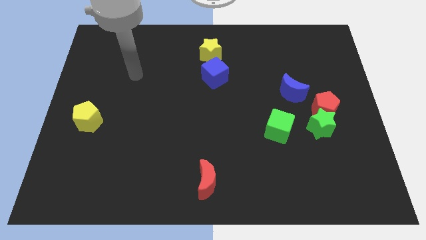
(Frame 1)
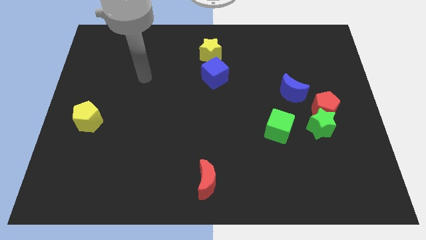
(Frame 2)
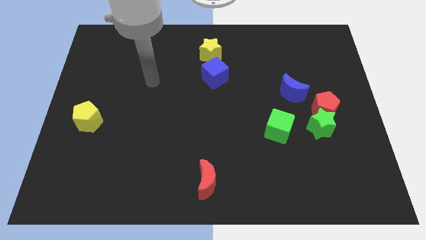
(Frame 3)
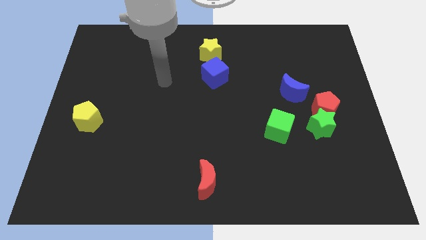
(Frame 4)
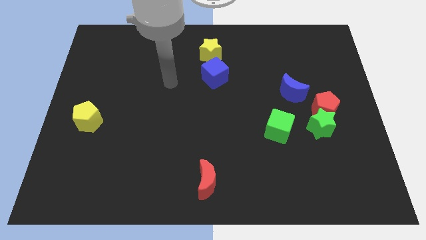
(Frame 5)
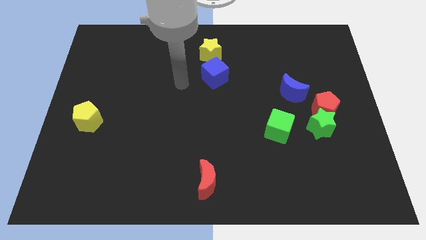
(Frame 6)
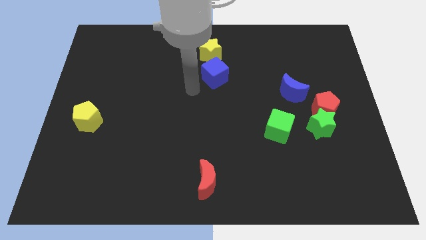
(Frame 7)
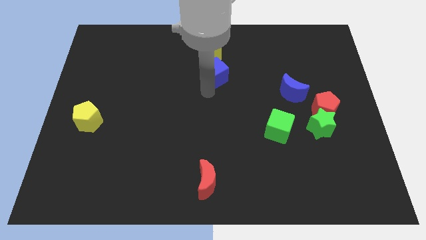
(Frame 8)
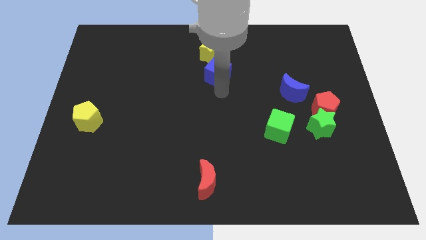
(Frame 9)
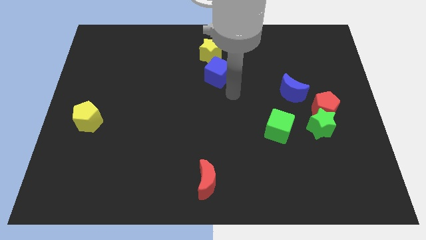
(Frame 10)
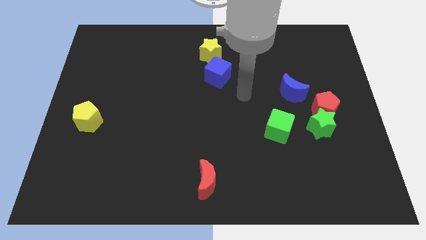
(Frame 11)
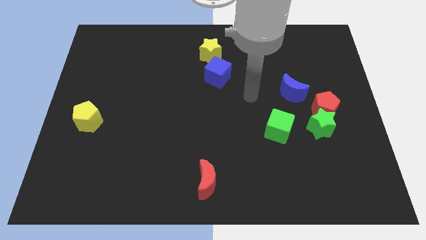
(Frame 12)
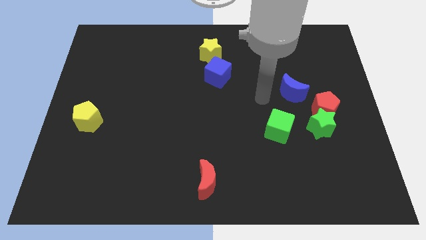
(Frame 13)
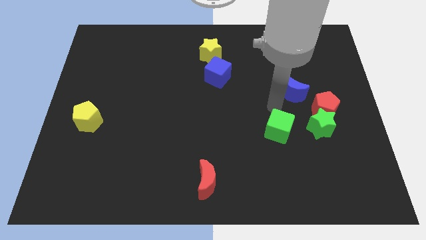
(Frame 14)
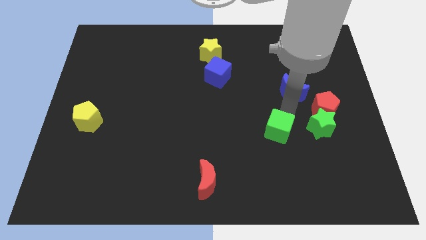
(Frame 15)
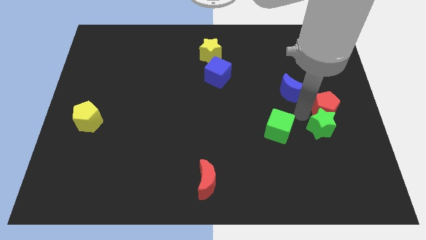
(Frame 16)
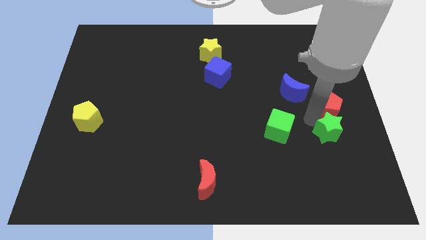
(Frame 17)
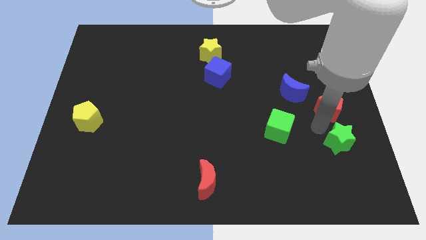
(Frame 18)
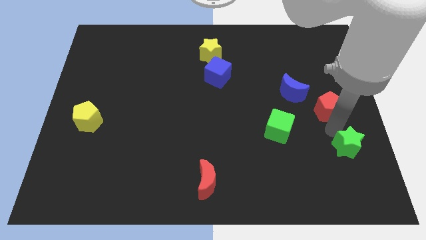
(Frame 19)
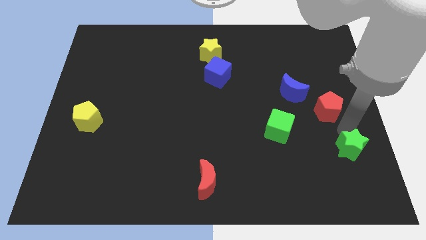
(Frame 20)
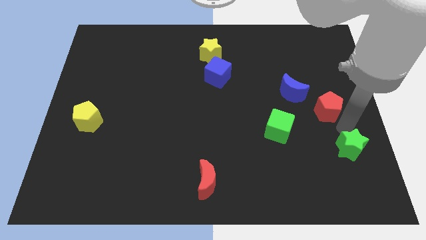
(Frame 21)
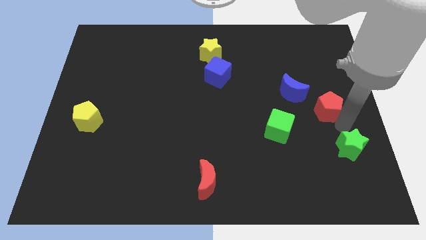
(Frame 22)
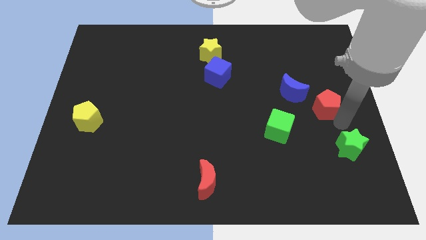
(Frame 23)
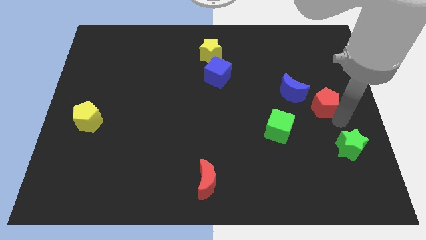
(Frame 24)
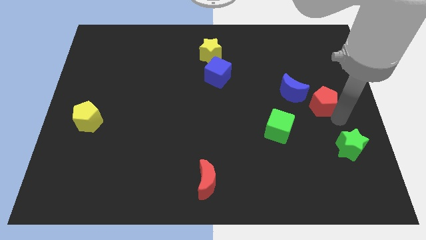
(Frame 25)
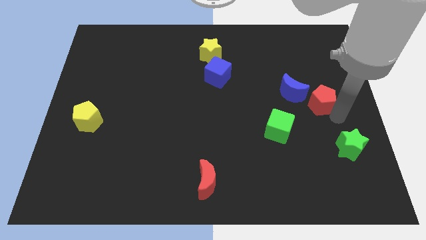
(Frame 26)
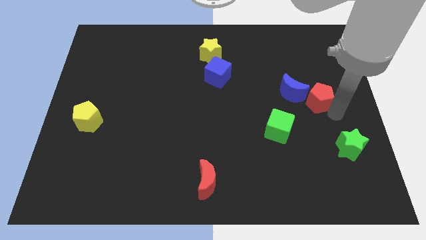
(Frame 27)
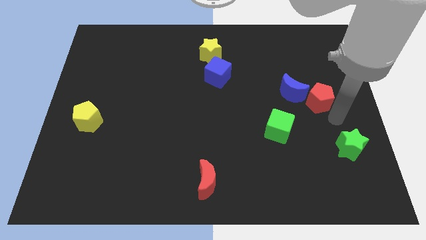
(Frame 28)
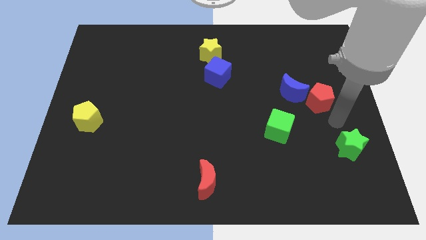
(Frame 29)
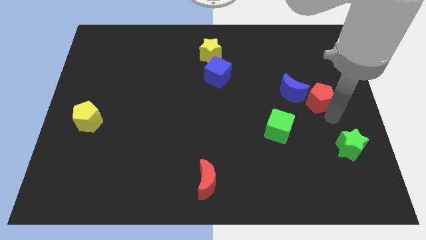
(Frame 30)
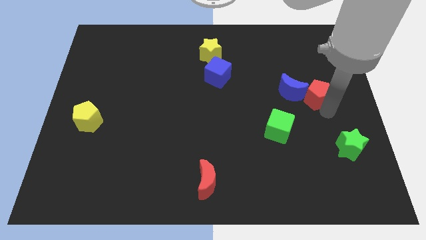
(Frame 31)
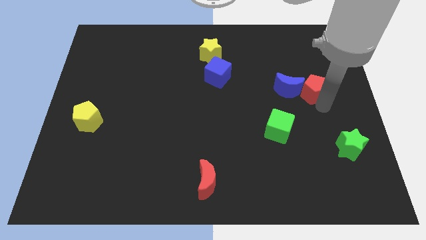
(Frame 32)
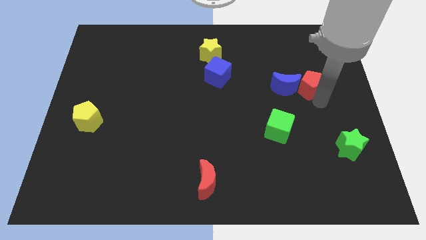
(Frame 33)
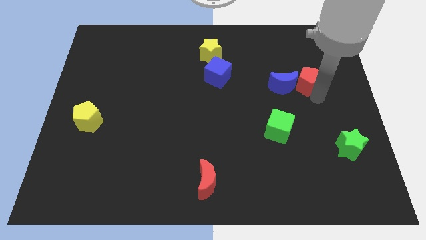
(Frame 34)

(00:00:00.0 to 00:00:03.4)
move the red pentagon a little up and left diagonally

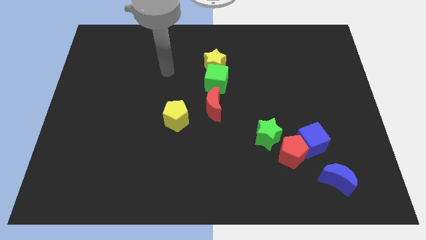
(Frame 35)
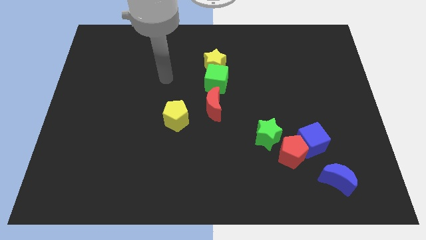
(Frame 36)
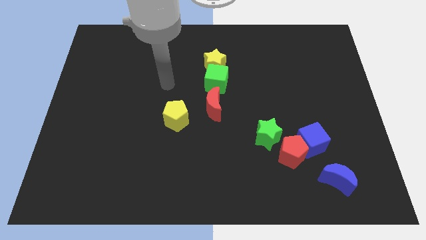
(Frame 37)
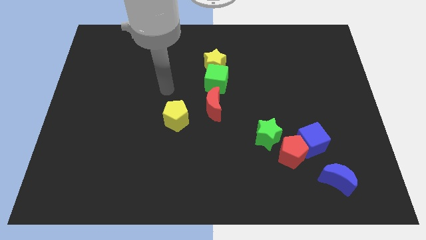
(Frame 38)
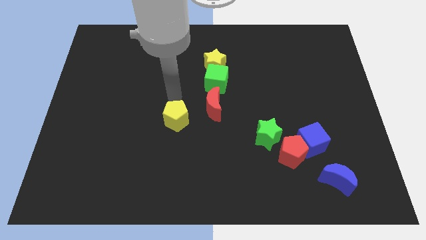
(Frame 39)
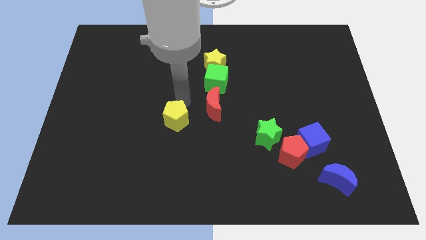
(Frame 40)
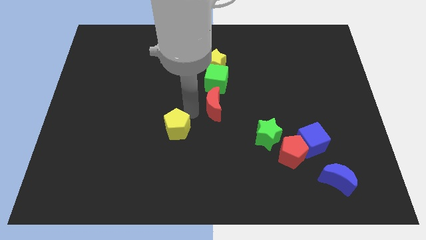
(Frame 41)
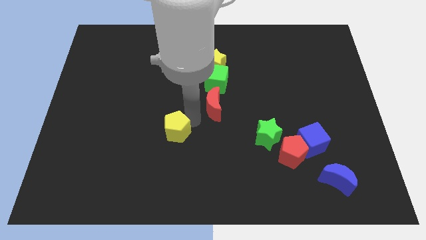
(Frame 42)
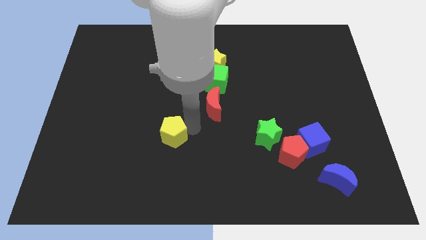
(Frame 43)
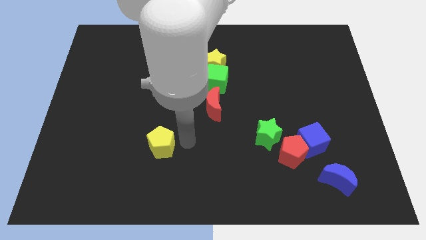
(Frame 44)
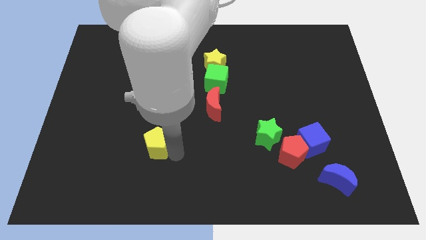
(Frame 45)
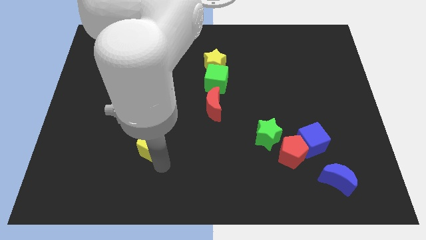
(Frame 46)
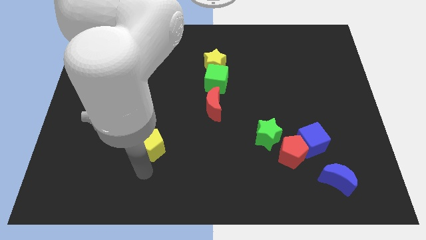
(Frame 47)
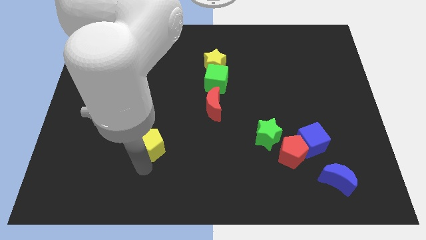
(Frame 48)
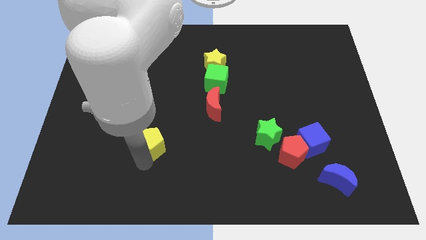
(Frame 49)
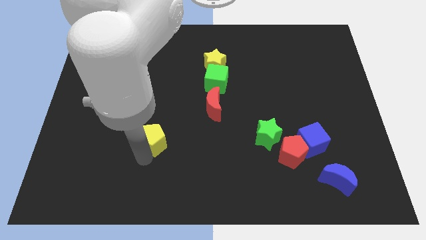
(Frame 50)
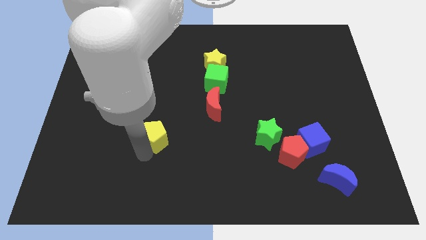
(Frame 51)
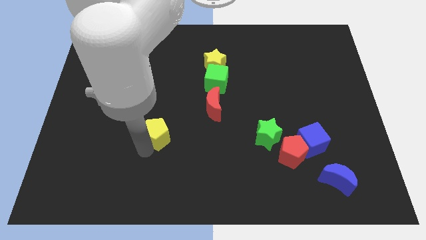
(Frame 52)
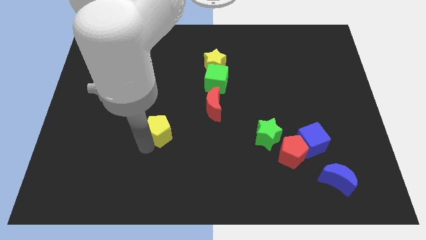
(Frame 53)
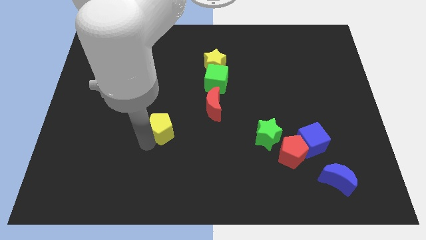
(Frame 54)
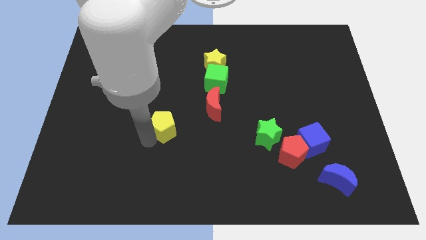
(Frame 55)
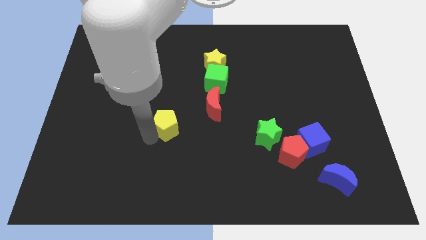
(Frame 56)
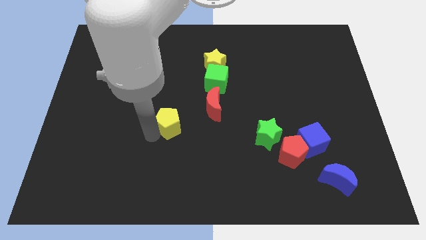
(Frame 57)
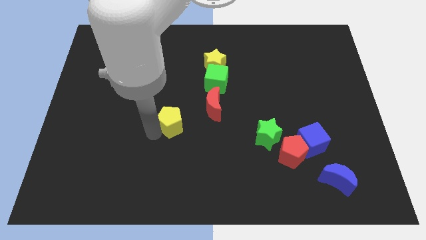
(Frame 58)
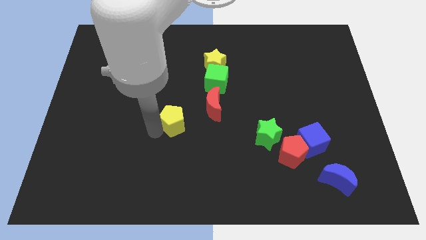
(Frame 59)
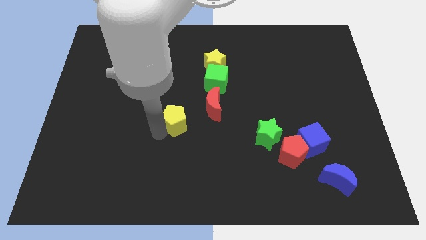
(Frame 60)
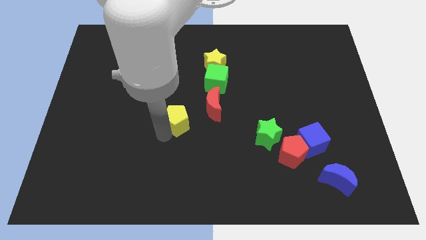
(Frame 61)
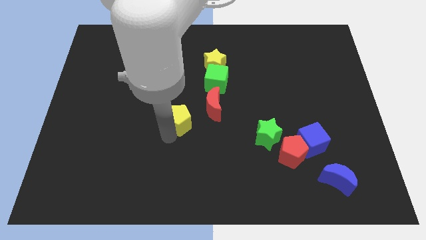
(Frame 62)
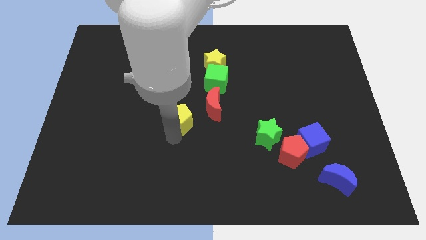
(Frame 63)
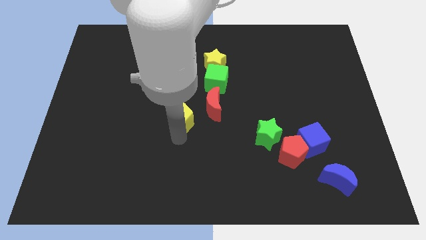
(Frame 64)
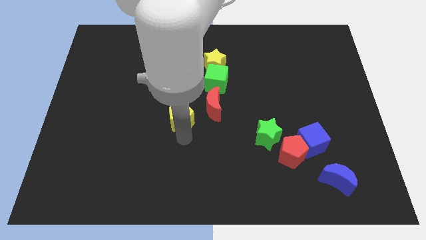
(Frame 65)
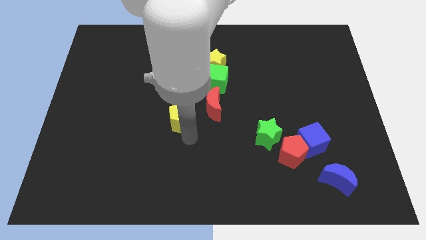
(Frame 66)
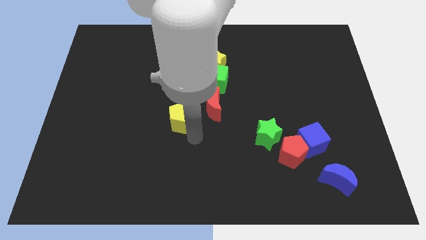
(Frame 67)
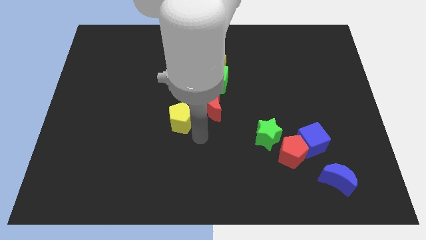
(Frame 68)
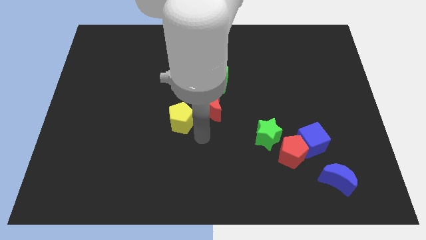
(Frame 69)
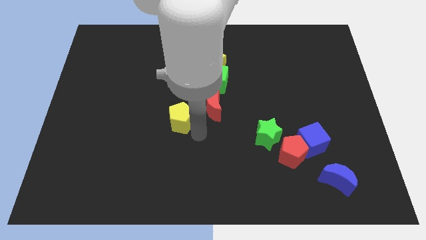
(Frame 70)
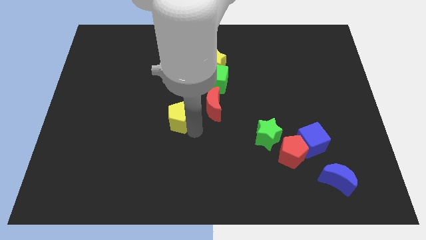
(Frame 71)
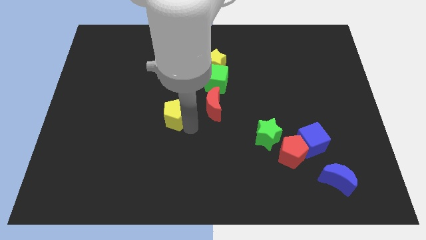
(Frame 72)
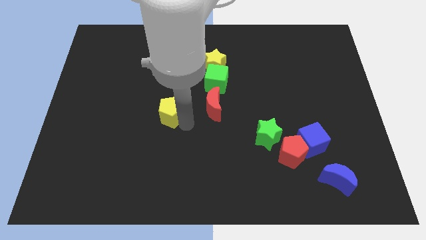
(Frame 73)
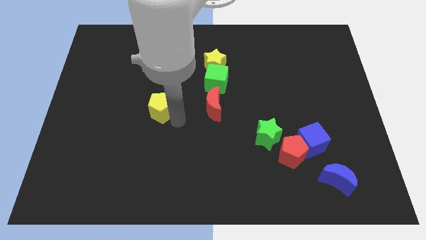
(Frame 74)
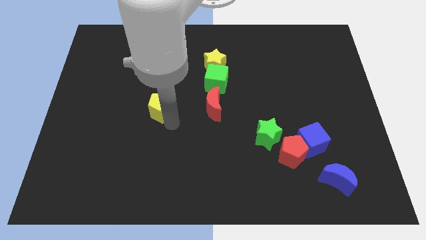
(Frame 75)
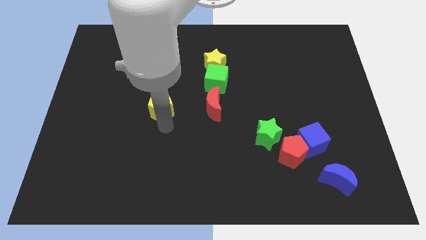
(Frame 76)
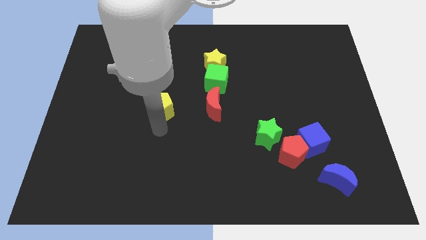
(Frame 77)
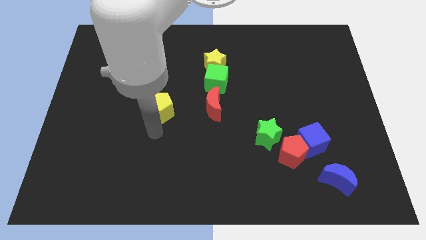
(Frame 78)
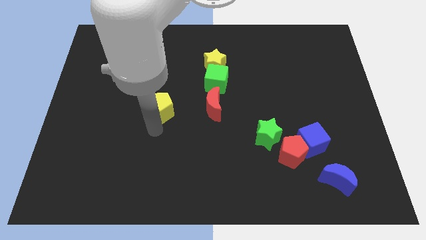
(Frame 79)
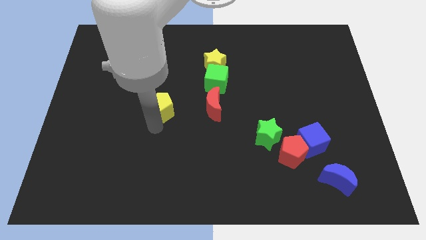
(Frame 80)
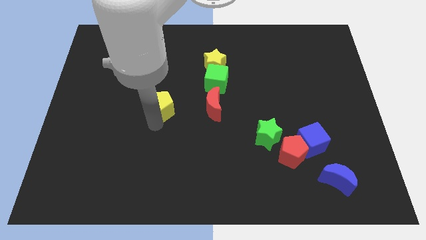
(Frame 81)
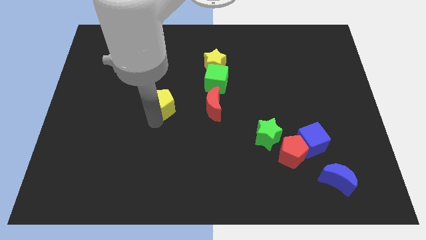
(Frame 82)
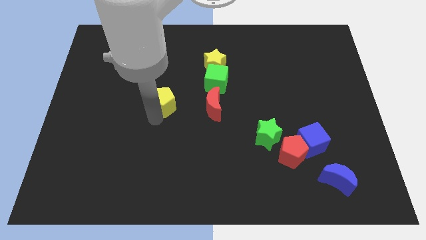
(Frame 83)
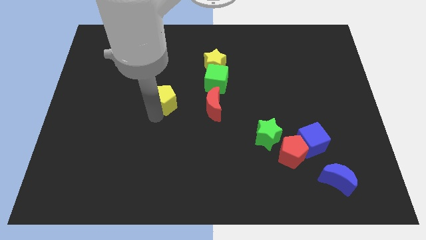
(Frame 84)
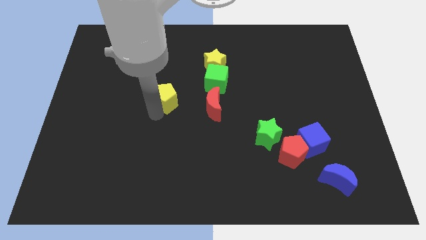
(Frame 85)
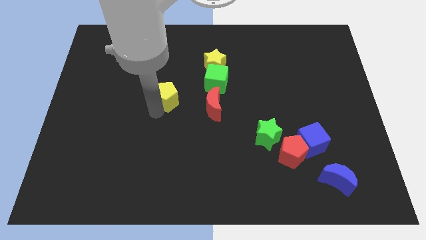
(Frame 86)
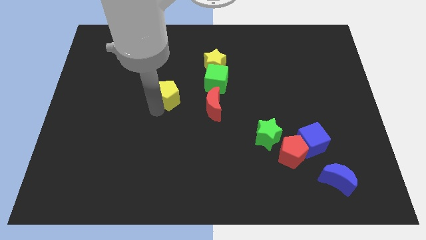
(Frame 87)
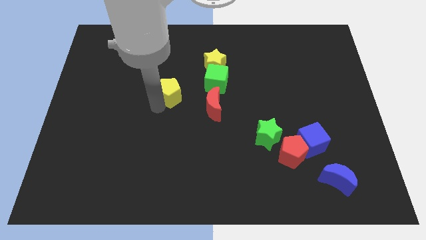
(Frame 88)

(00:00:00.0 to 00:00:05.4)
move the yellow pentagon a bit upwards
